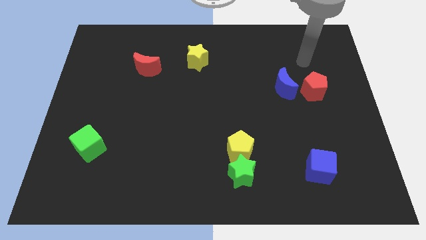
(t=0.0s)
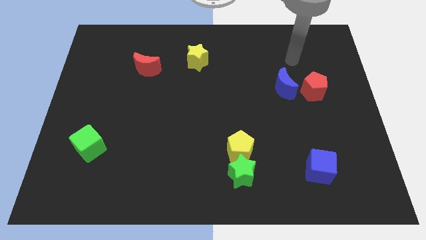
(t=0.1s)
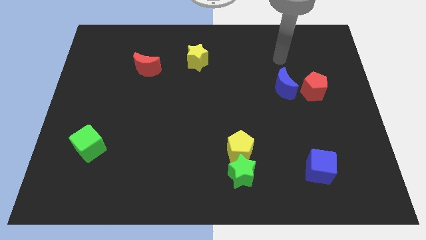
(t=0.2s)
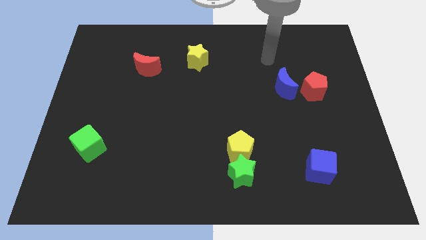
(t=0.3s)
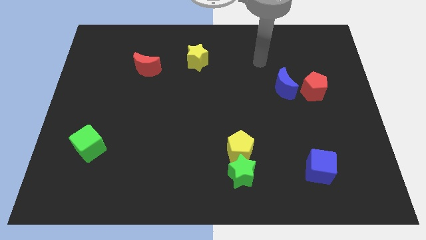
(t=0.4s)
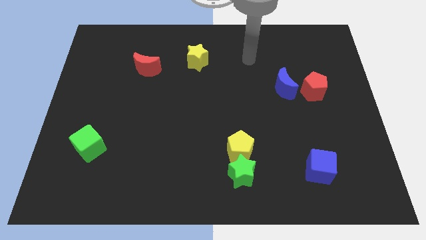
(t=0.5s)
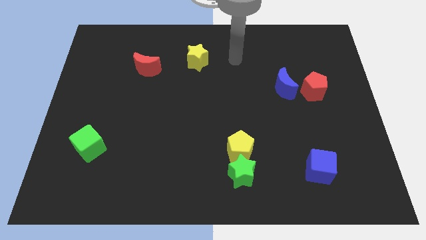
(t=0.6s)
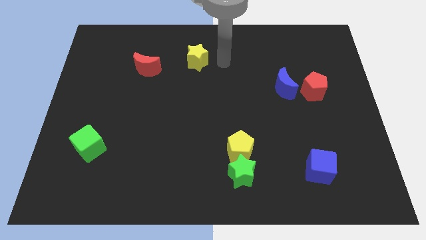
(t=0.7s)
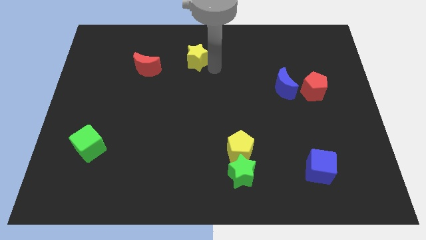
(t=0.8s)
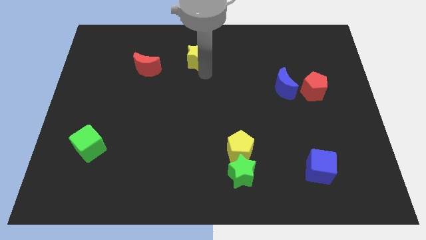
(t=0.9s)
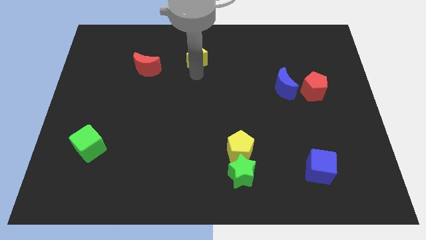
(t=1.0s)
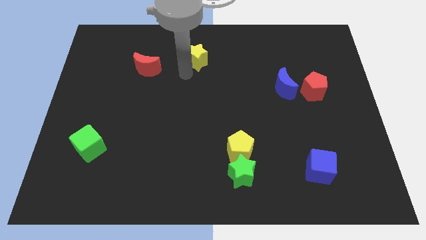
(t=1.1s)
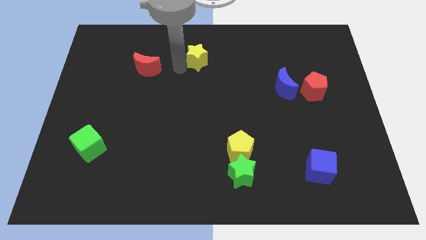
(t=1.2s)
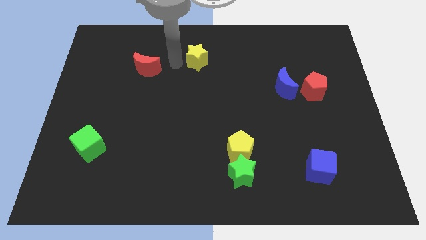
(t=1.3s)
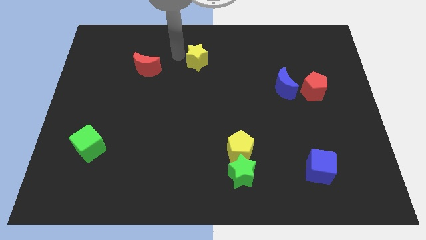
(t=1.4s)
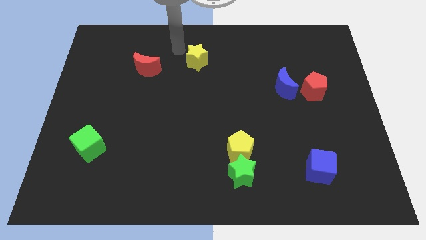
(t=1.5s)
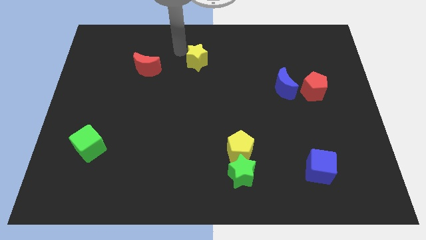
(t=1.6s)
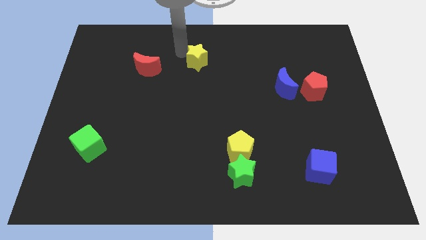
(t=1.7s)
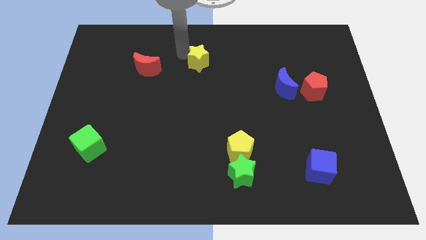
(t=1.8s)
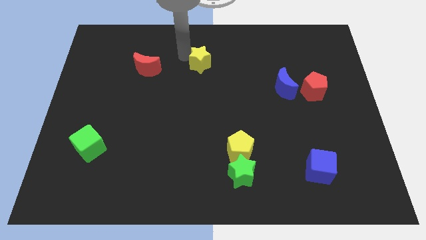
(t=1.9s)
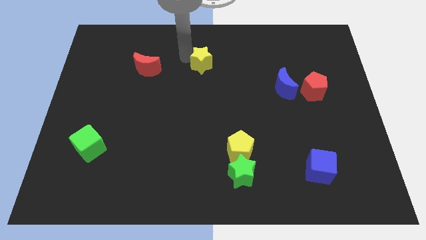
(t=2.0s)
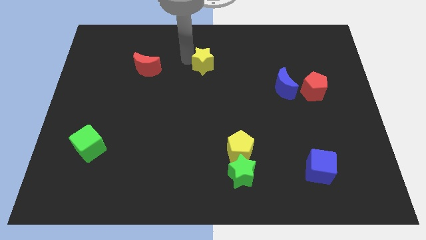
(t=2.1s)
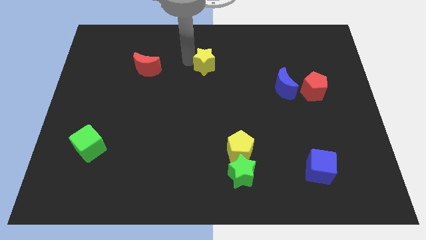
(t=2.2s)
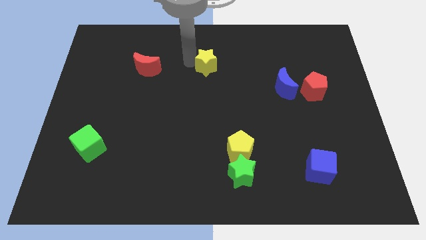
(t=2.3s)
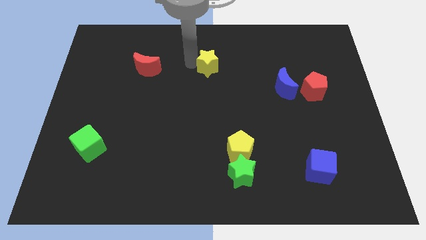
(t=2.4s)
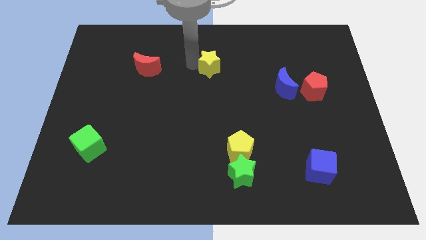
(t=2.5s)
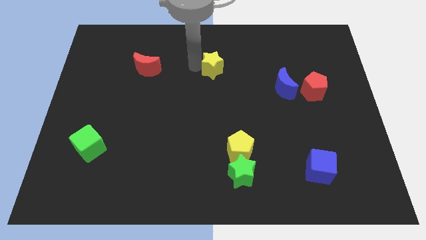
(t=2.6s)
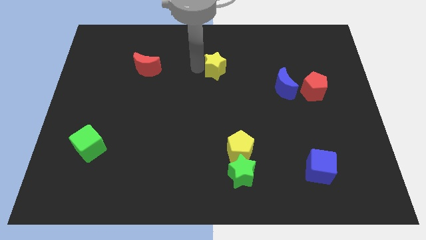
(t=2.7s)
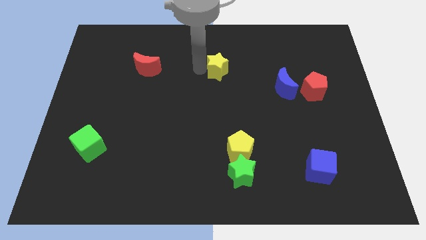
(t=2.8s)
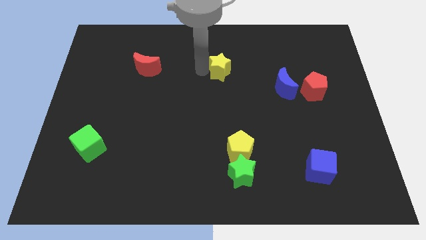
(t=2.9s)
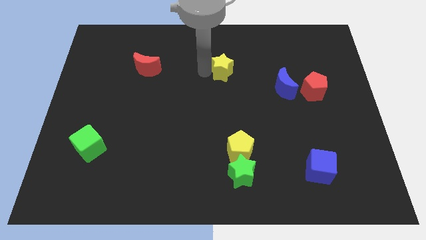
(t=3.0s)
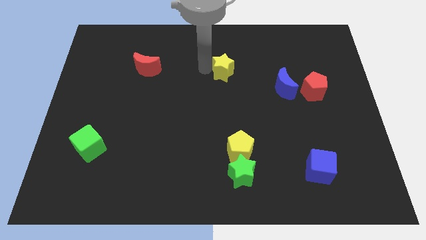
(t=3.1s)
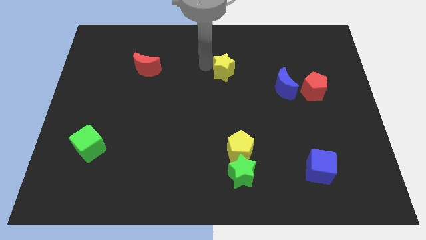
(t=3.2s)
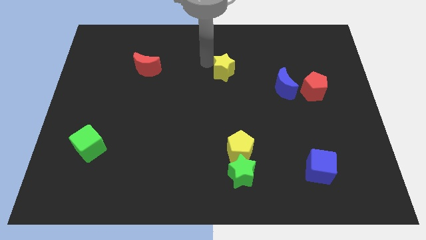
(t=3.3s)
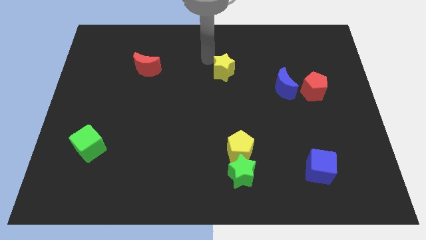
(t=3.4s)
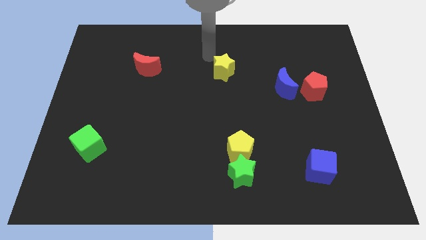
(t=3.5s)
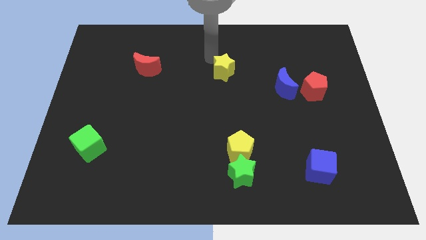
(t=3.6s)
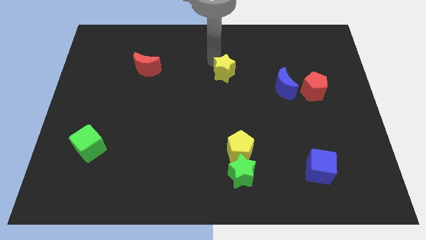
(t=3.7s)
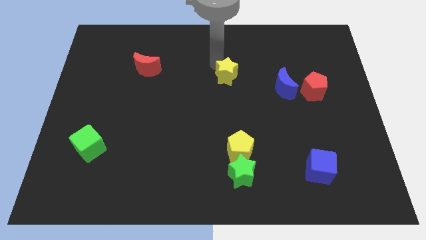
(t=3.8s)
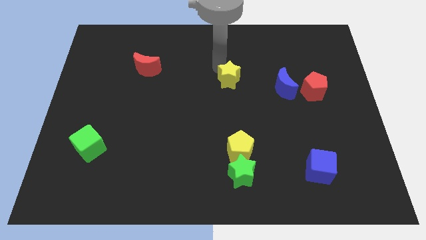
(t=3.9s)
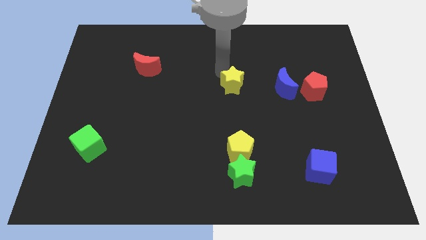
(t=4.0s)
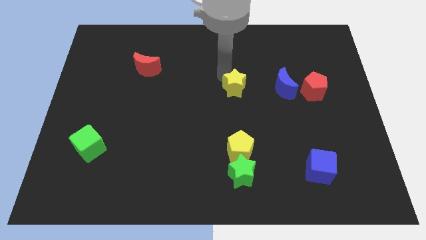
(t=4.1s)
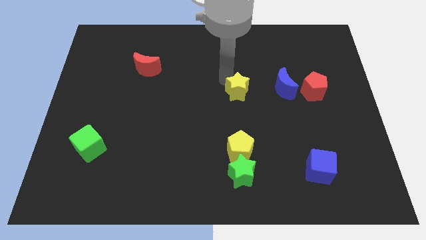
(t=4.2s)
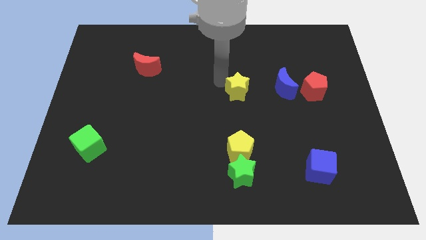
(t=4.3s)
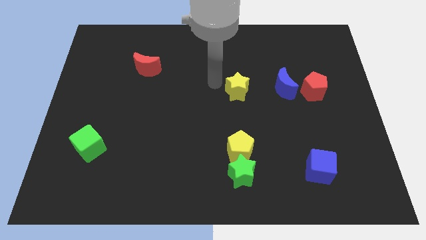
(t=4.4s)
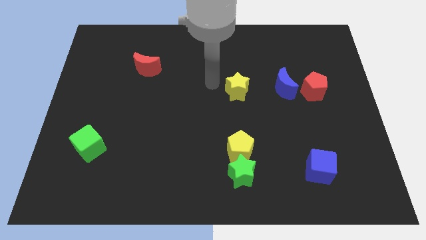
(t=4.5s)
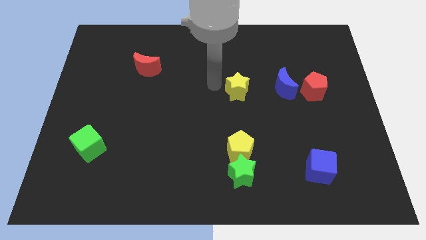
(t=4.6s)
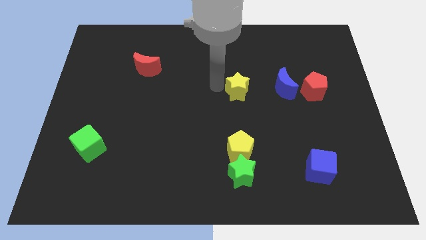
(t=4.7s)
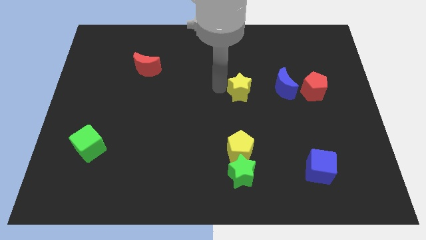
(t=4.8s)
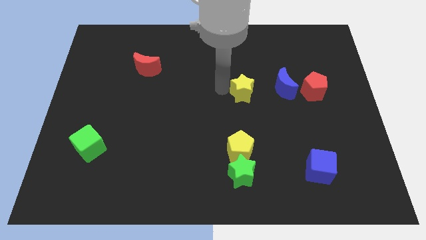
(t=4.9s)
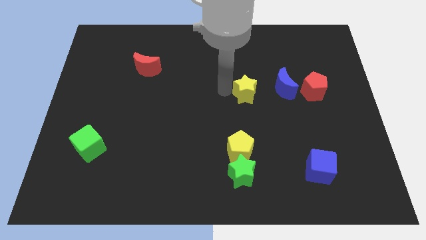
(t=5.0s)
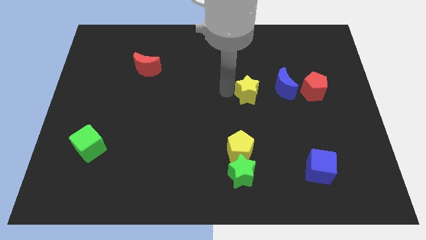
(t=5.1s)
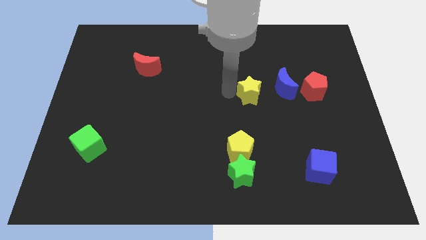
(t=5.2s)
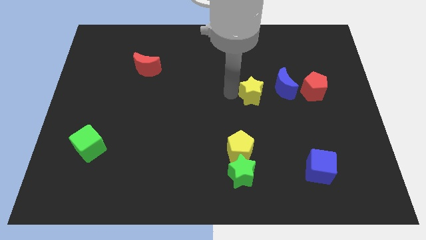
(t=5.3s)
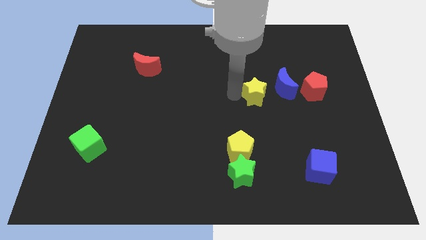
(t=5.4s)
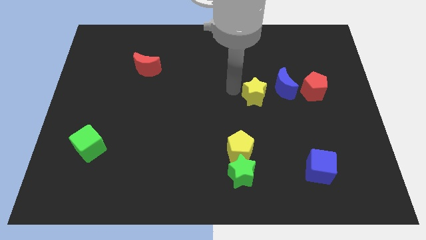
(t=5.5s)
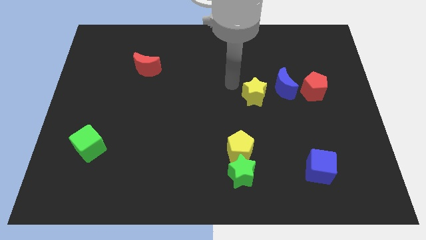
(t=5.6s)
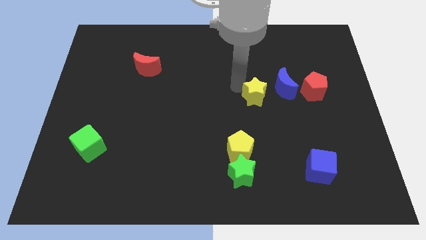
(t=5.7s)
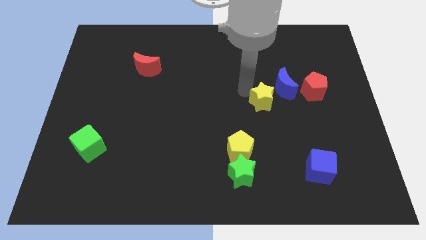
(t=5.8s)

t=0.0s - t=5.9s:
slide the yellow star down and then to the right

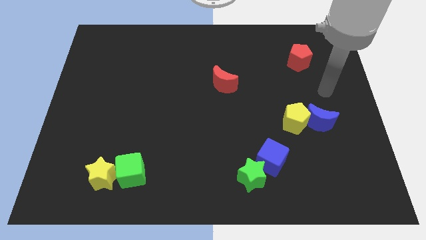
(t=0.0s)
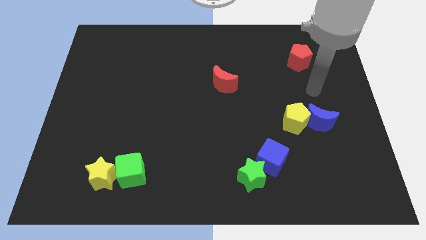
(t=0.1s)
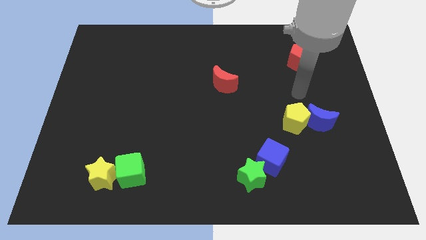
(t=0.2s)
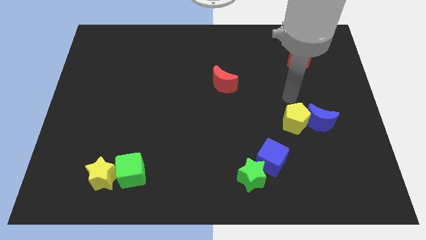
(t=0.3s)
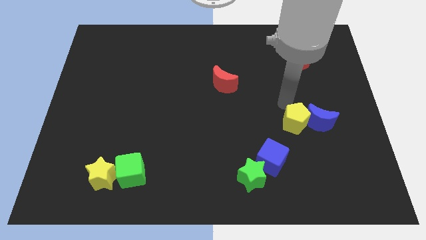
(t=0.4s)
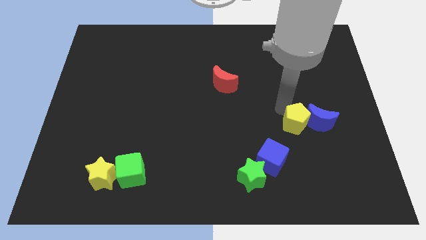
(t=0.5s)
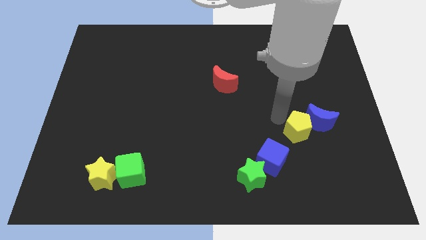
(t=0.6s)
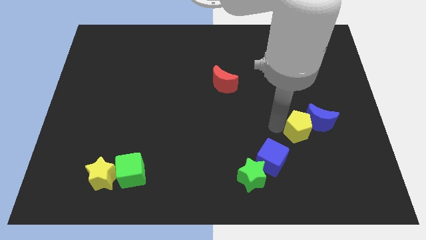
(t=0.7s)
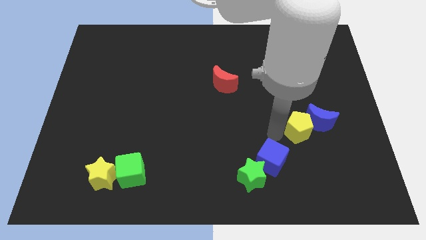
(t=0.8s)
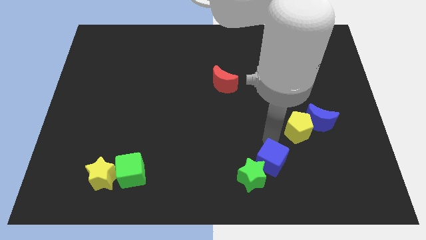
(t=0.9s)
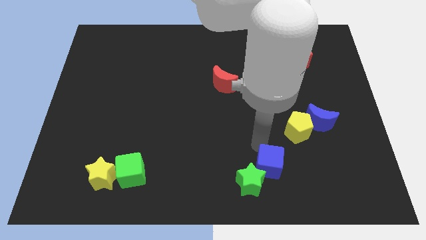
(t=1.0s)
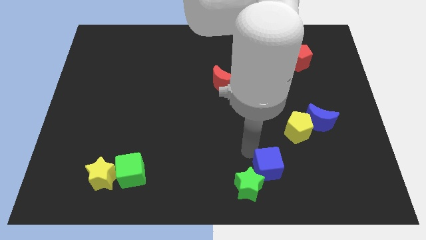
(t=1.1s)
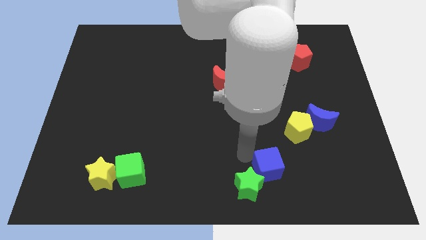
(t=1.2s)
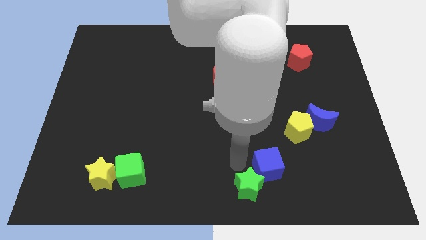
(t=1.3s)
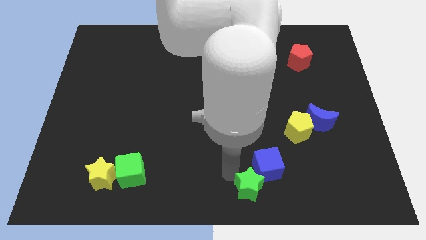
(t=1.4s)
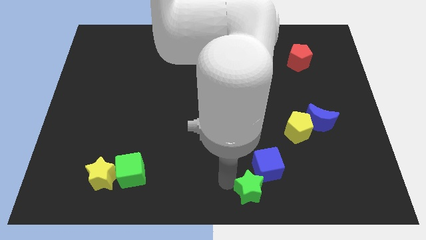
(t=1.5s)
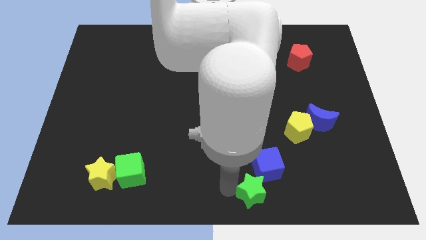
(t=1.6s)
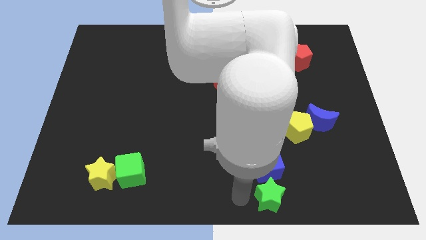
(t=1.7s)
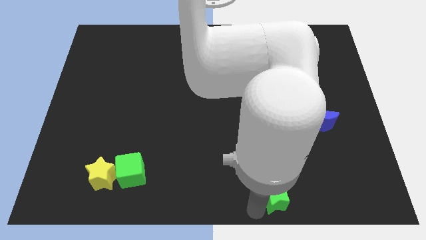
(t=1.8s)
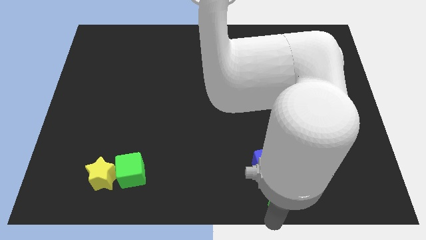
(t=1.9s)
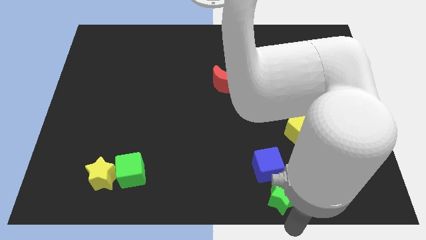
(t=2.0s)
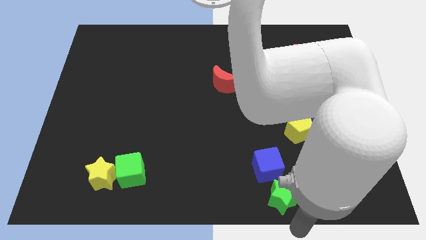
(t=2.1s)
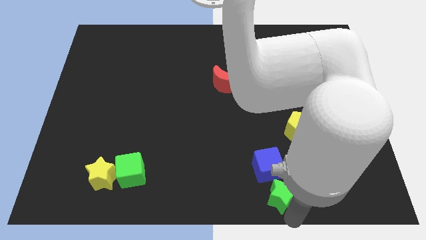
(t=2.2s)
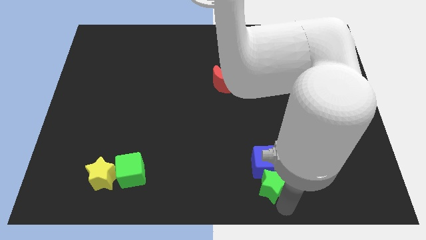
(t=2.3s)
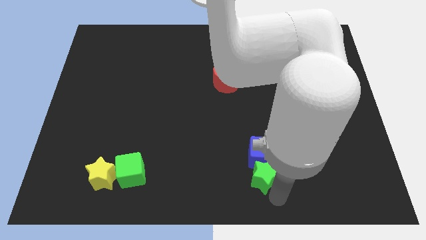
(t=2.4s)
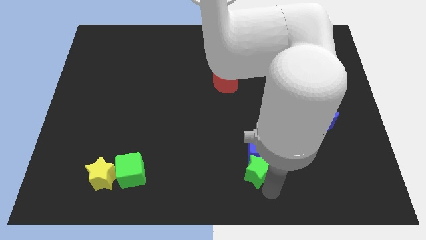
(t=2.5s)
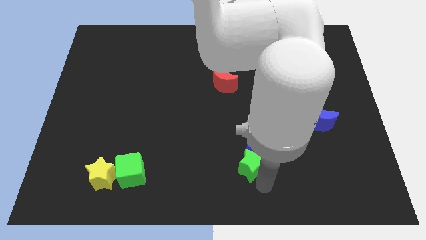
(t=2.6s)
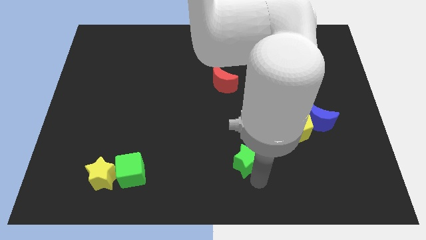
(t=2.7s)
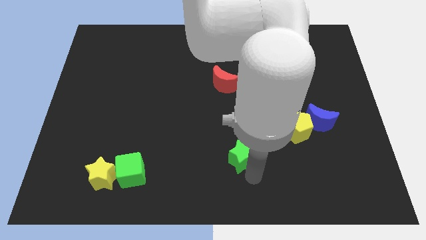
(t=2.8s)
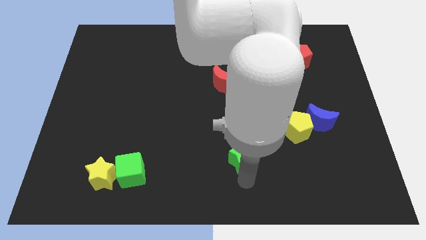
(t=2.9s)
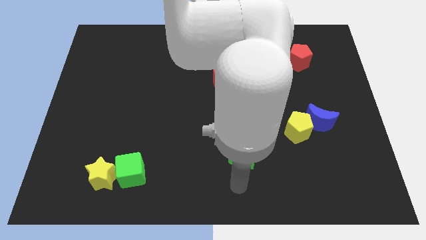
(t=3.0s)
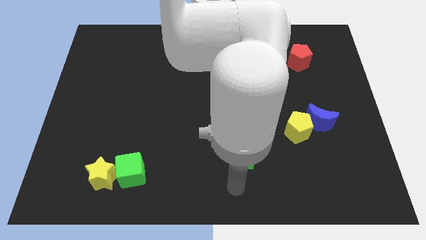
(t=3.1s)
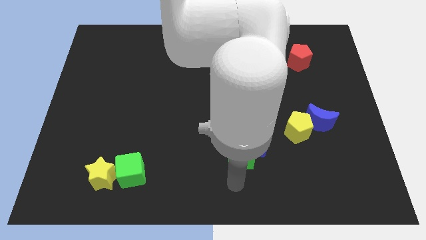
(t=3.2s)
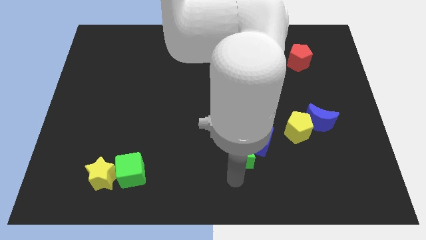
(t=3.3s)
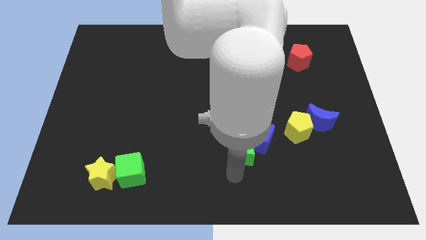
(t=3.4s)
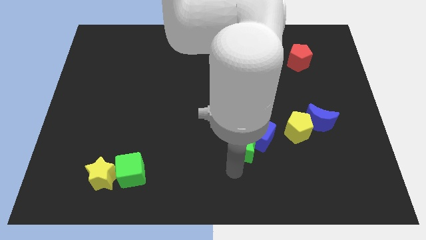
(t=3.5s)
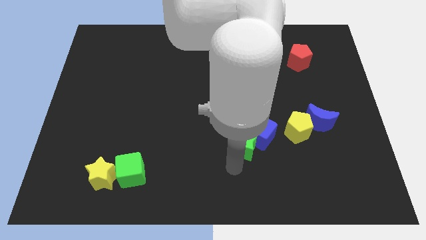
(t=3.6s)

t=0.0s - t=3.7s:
slightly push the green star upwards
